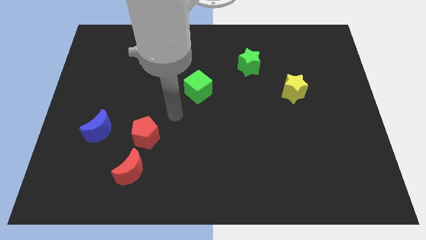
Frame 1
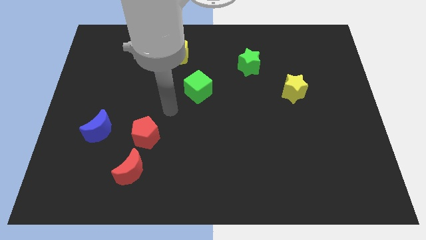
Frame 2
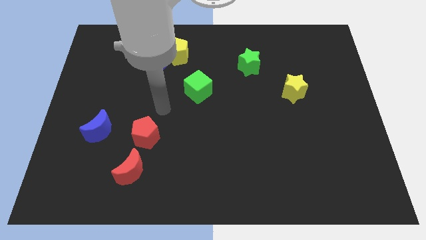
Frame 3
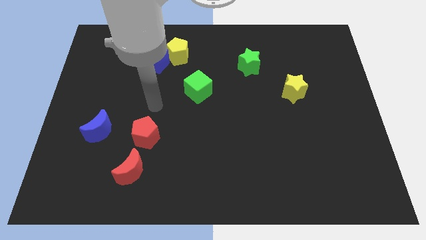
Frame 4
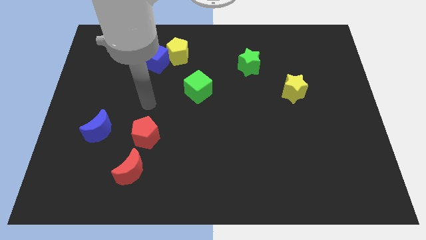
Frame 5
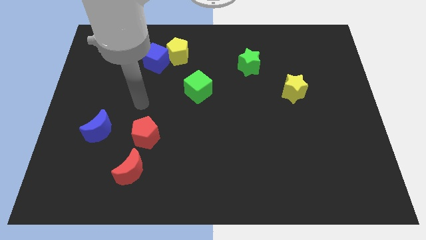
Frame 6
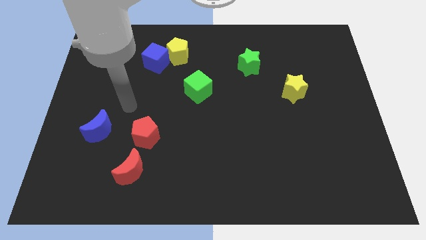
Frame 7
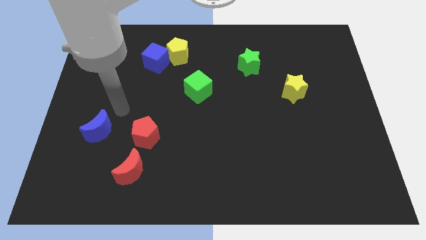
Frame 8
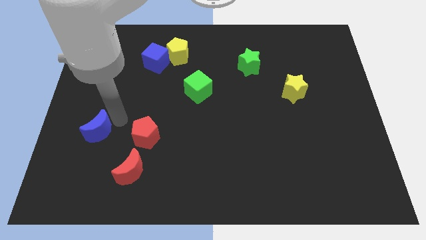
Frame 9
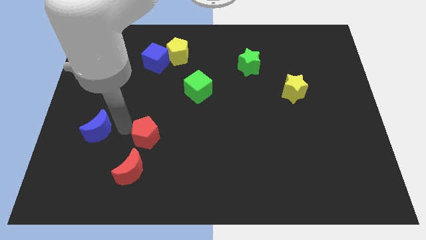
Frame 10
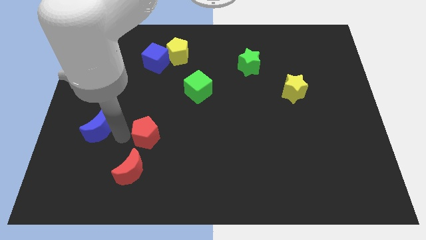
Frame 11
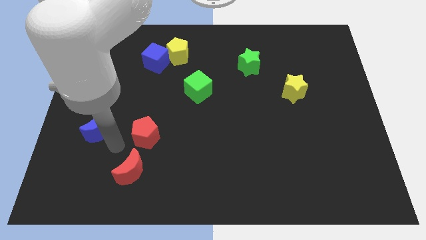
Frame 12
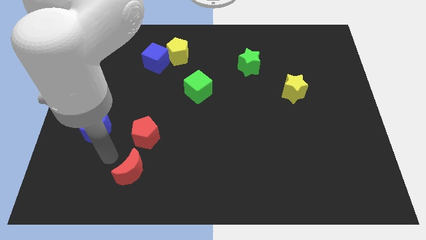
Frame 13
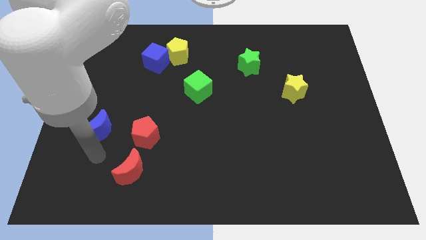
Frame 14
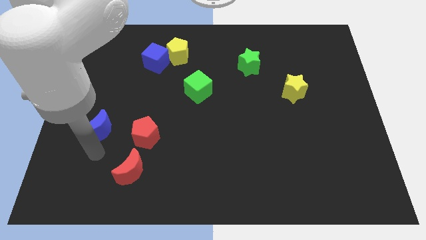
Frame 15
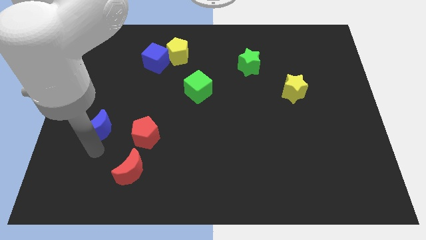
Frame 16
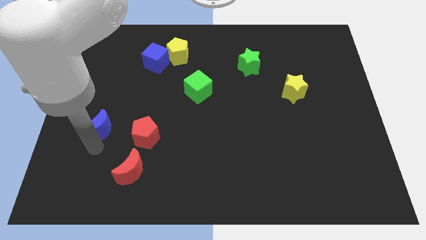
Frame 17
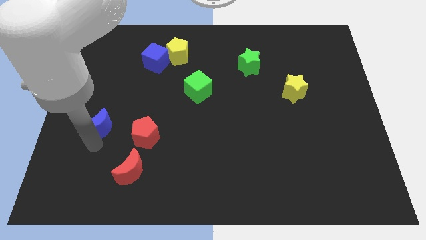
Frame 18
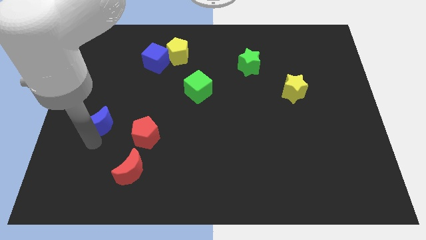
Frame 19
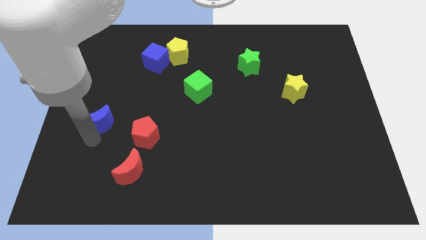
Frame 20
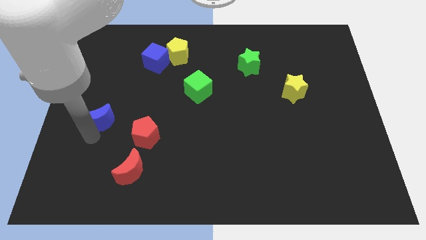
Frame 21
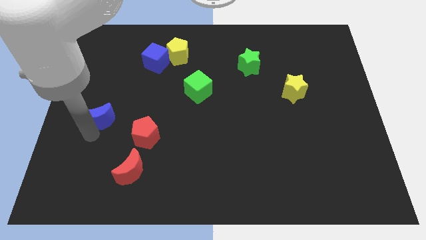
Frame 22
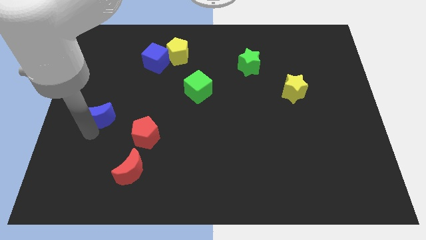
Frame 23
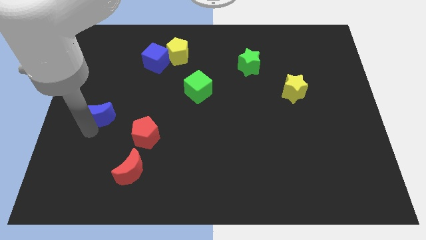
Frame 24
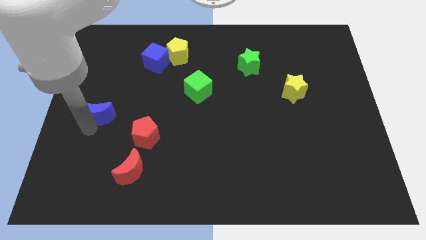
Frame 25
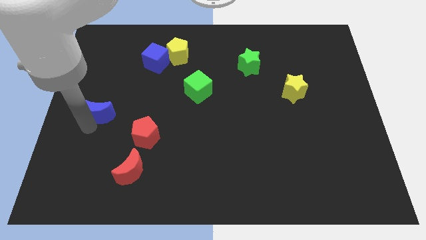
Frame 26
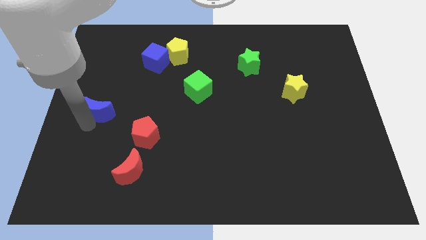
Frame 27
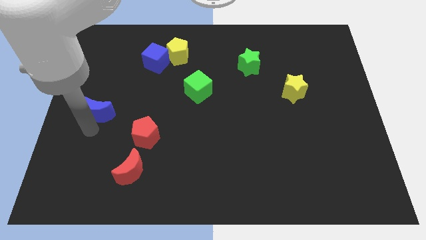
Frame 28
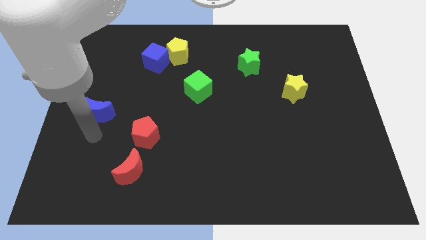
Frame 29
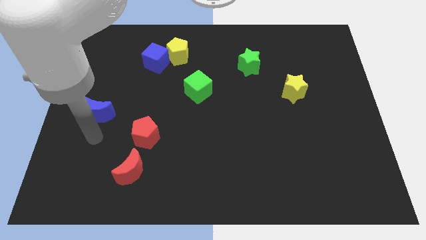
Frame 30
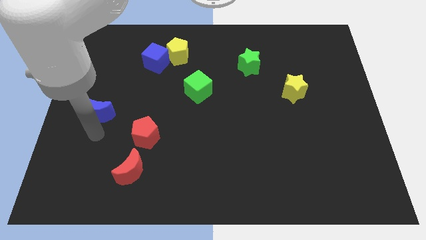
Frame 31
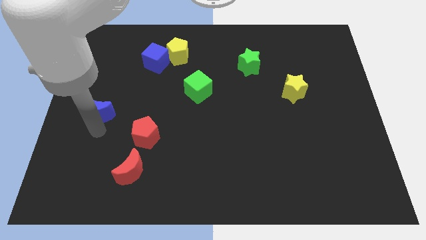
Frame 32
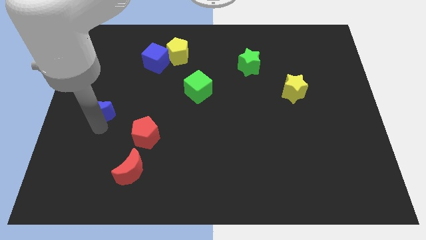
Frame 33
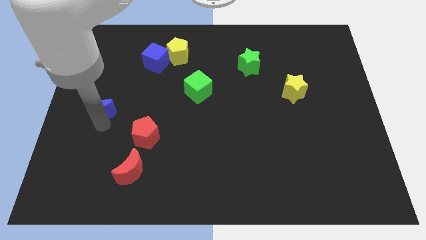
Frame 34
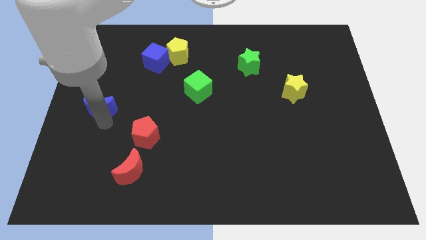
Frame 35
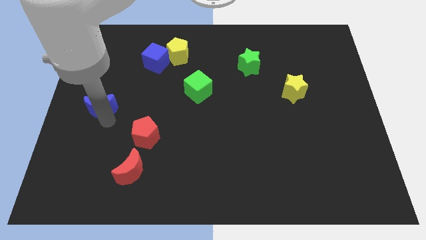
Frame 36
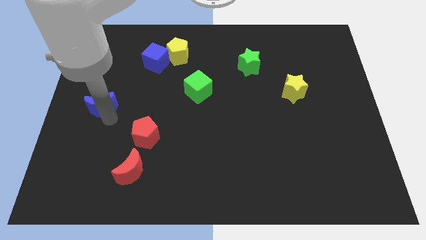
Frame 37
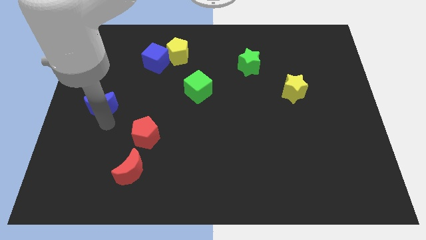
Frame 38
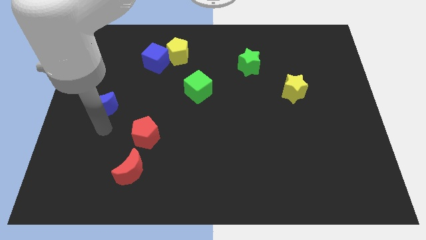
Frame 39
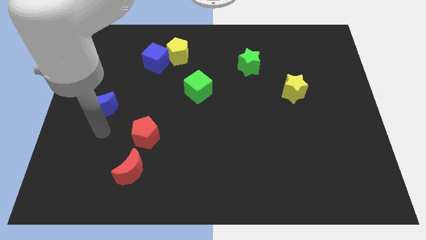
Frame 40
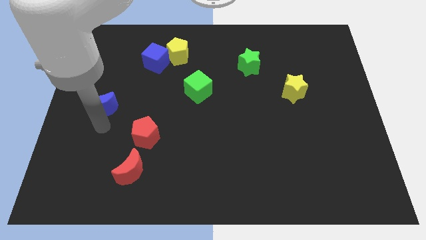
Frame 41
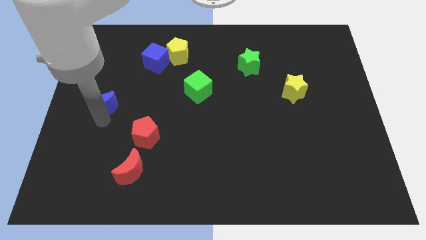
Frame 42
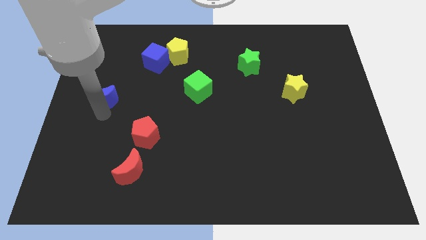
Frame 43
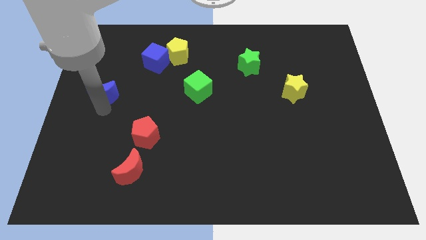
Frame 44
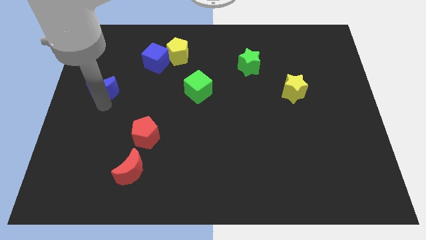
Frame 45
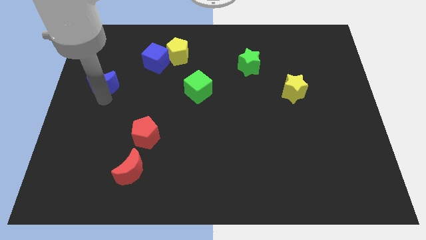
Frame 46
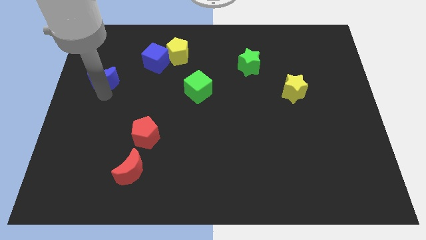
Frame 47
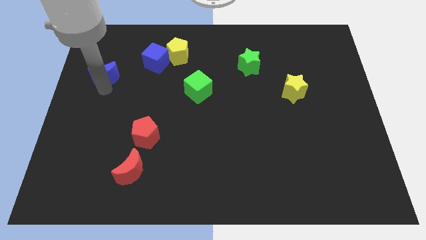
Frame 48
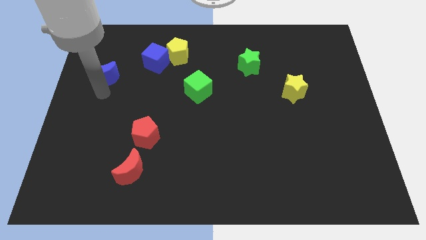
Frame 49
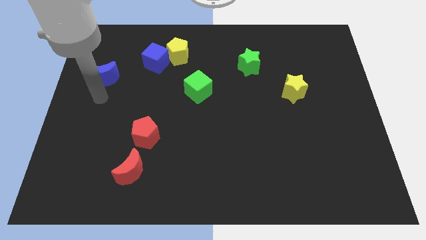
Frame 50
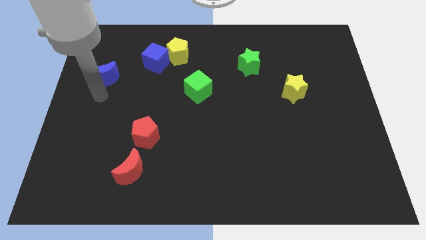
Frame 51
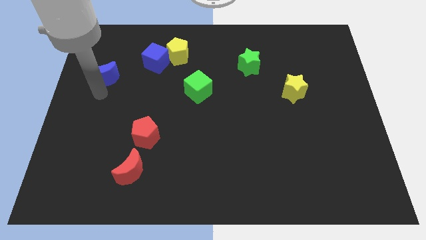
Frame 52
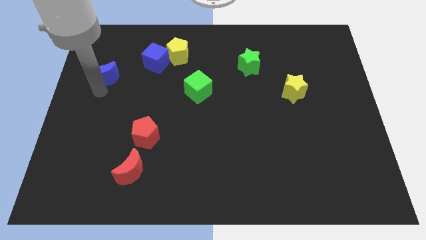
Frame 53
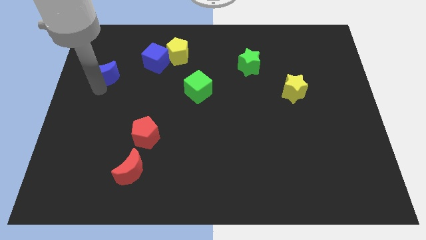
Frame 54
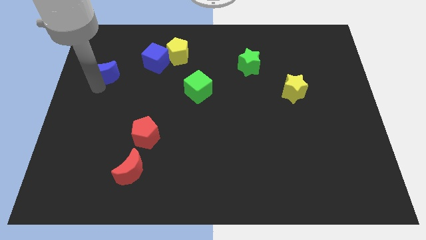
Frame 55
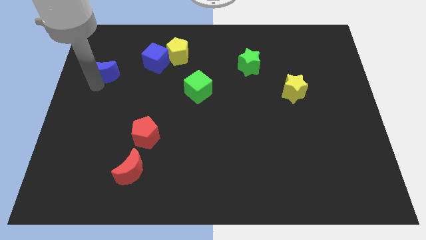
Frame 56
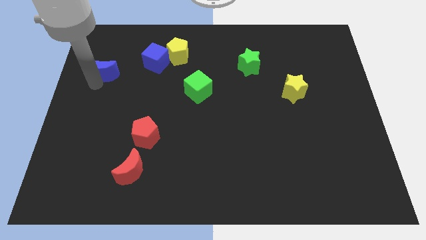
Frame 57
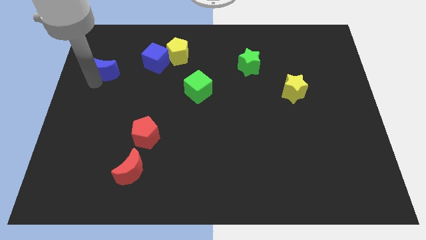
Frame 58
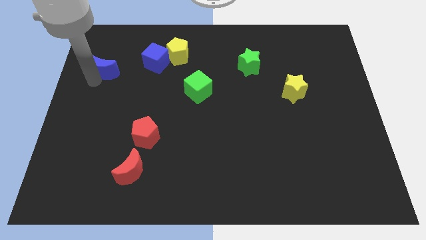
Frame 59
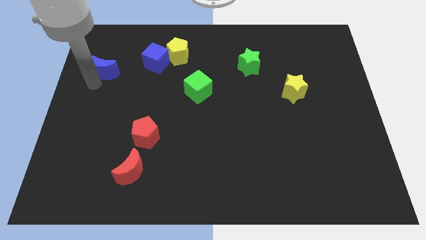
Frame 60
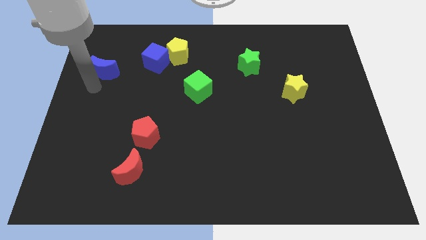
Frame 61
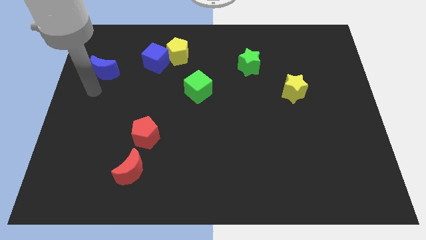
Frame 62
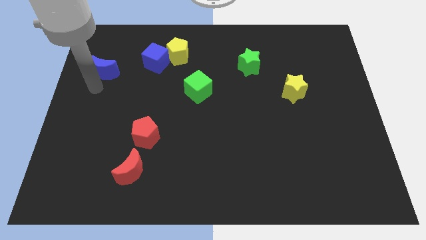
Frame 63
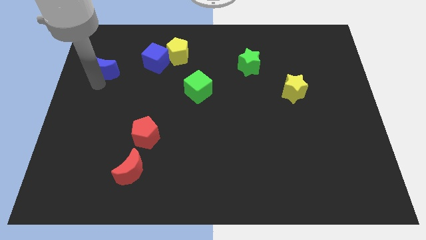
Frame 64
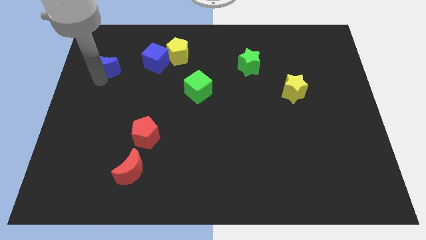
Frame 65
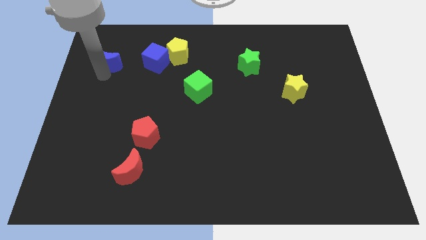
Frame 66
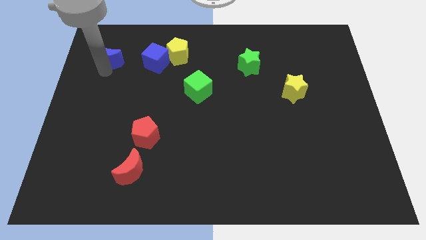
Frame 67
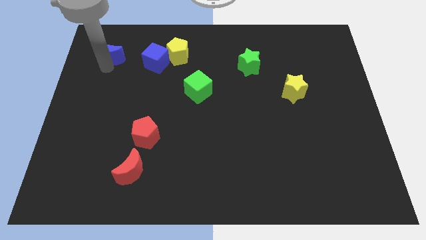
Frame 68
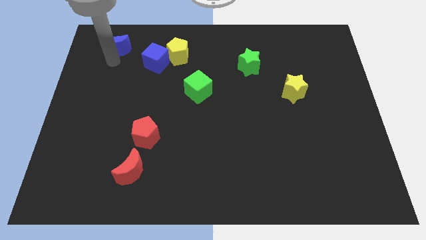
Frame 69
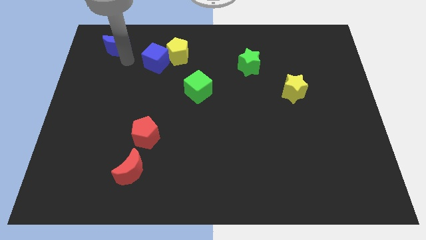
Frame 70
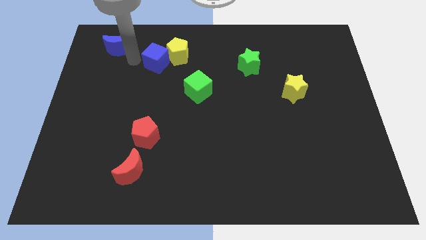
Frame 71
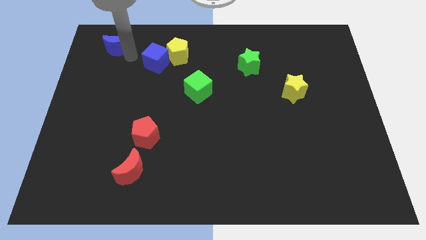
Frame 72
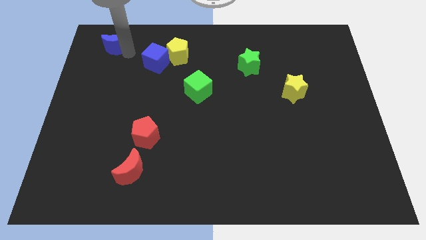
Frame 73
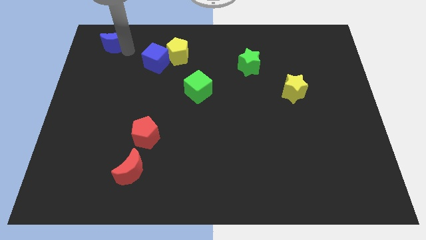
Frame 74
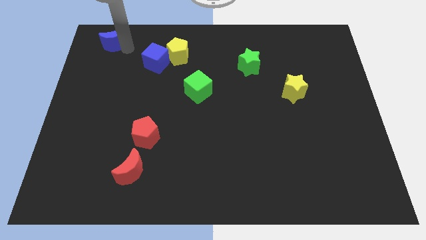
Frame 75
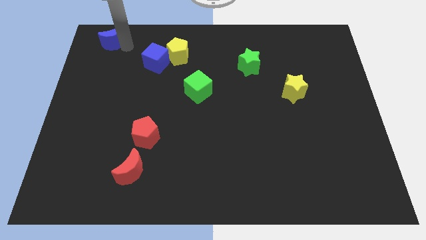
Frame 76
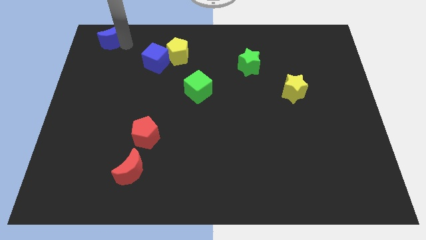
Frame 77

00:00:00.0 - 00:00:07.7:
move the blue moon to the top left
